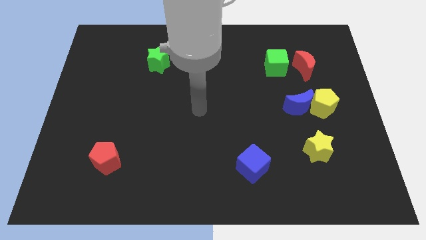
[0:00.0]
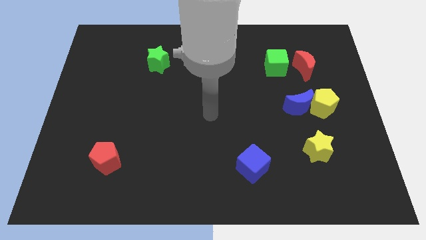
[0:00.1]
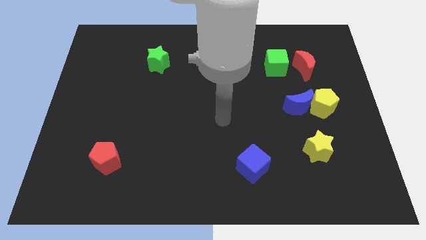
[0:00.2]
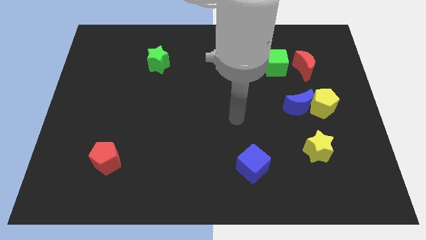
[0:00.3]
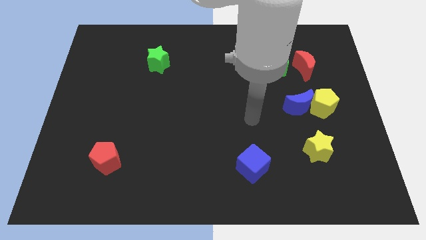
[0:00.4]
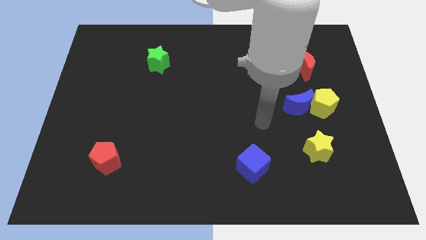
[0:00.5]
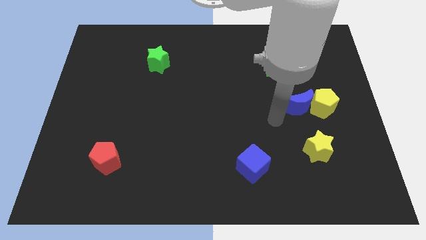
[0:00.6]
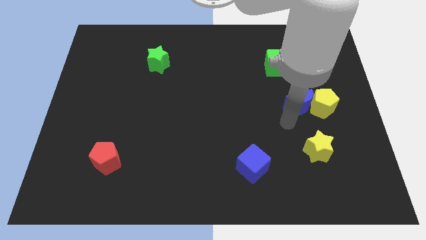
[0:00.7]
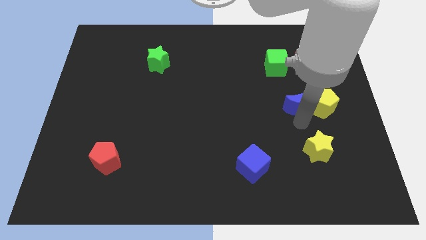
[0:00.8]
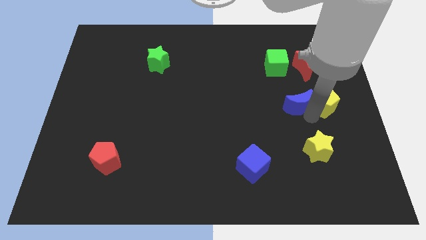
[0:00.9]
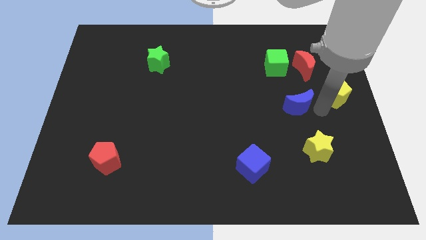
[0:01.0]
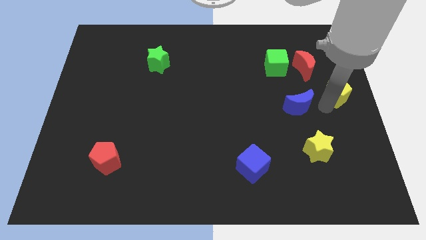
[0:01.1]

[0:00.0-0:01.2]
move the blue moon away from the yellow pentagon

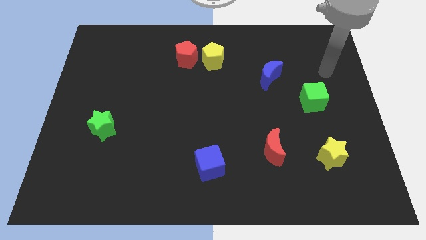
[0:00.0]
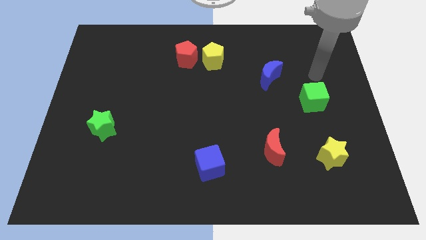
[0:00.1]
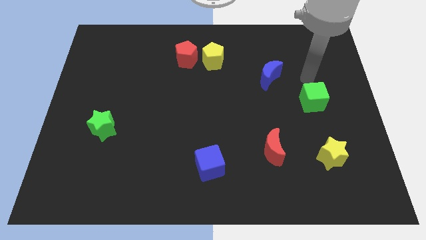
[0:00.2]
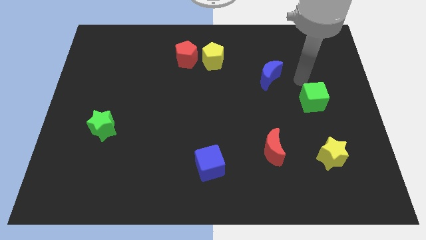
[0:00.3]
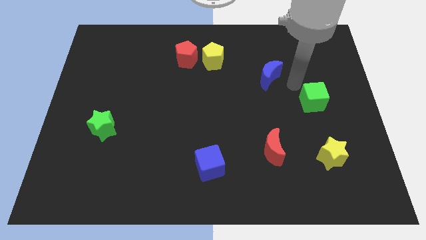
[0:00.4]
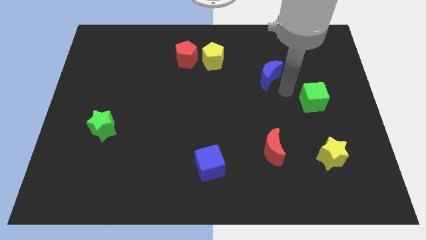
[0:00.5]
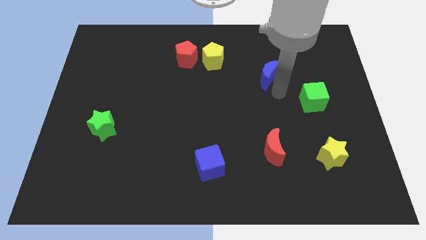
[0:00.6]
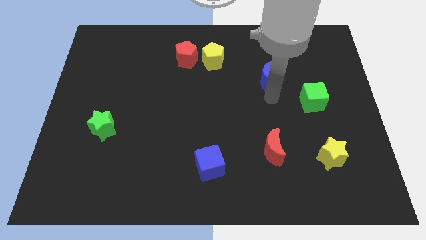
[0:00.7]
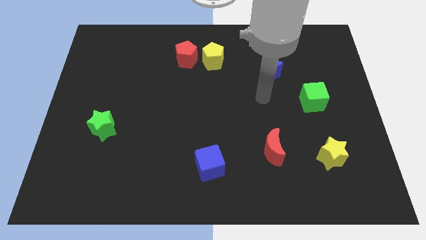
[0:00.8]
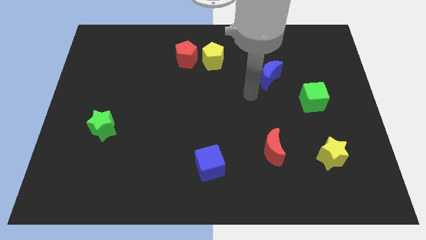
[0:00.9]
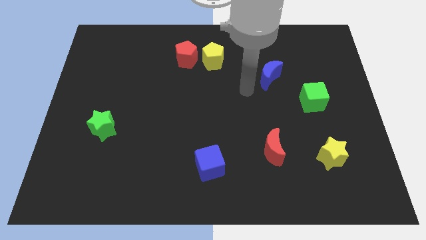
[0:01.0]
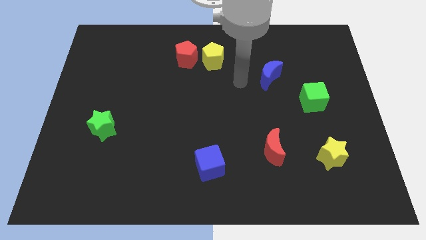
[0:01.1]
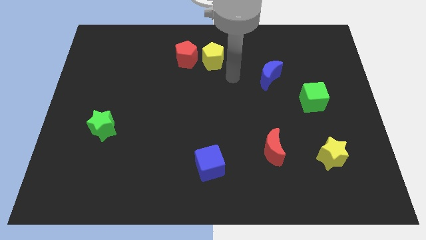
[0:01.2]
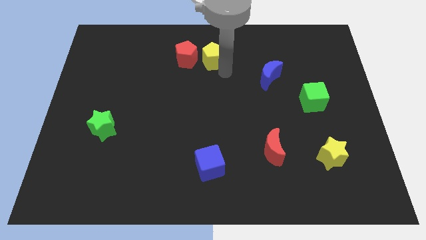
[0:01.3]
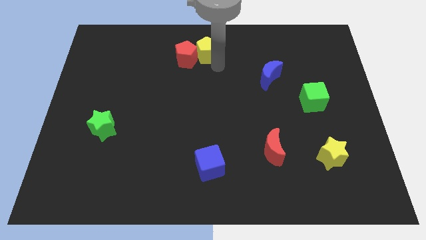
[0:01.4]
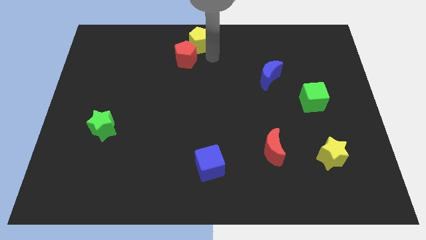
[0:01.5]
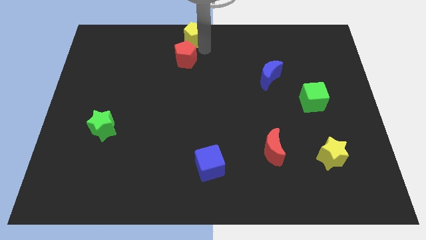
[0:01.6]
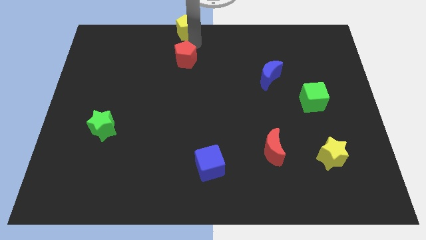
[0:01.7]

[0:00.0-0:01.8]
move the red pentagon away from the yellow pentagon

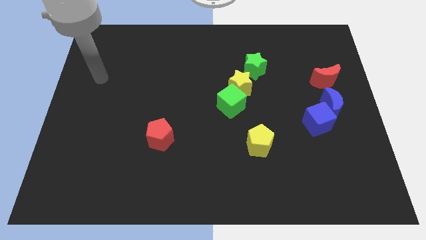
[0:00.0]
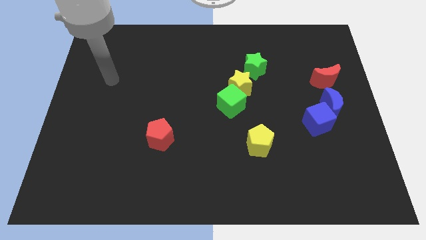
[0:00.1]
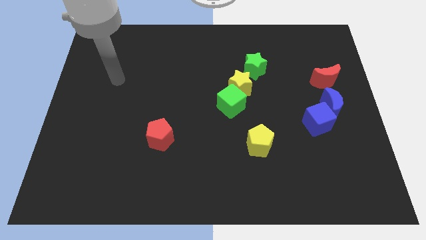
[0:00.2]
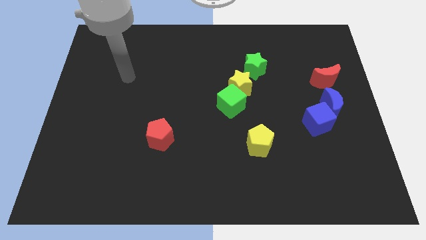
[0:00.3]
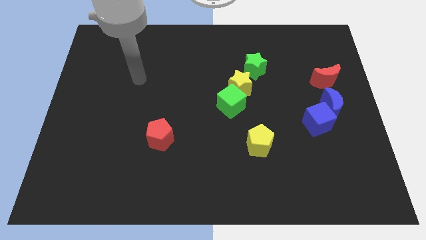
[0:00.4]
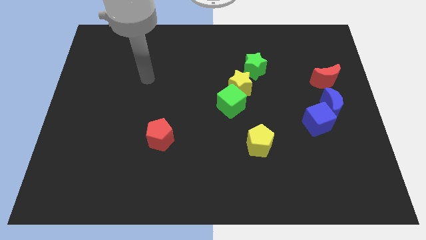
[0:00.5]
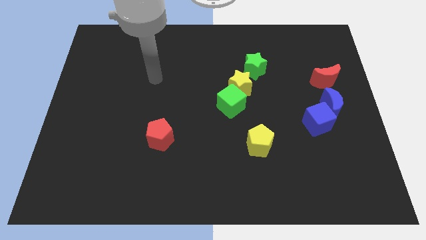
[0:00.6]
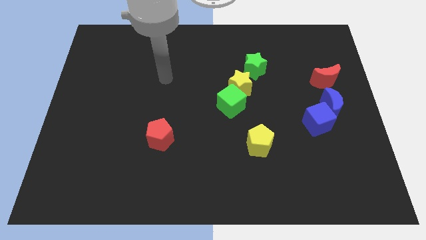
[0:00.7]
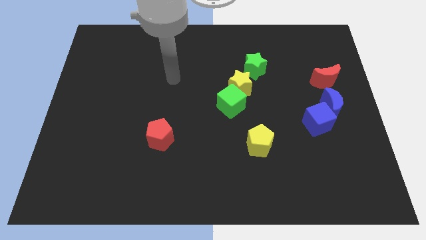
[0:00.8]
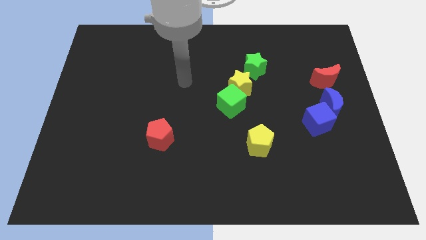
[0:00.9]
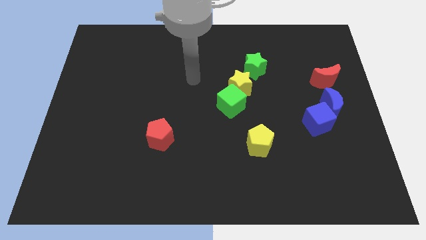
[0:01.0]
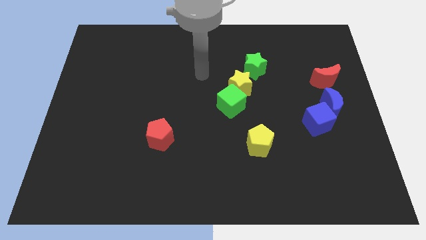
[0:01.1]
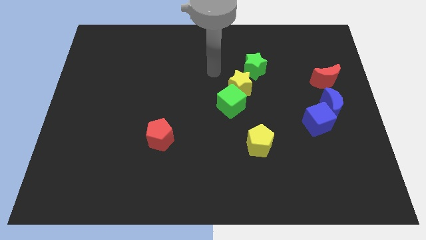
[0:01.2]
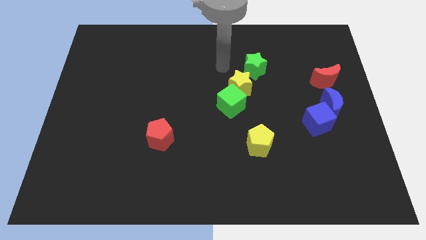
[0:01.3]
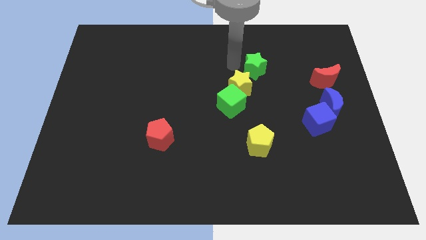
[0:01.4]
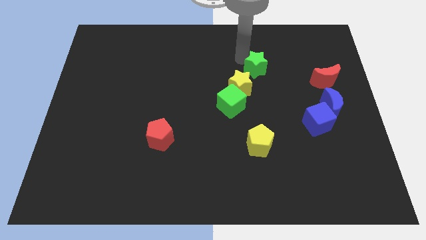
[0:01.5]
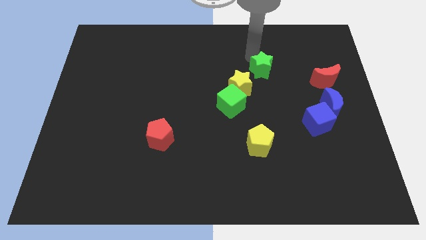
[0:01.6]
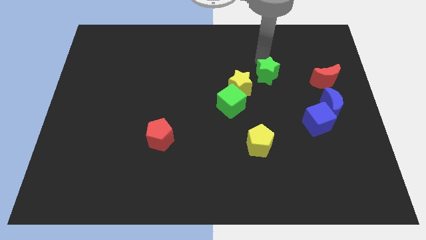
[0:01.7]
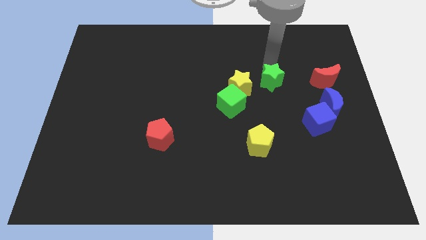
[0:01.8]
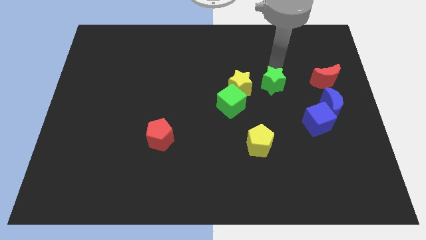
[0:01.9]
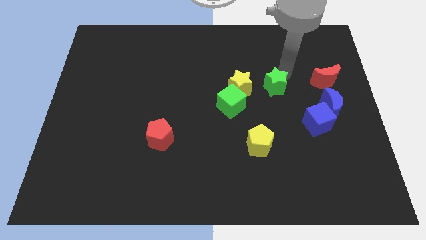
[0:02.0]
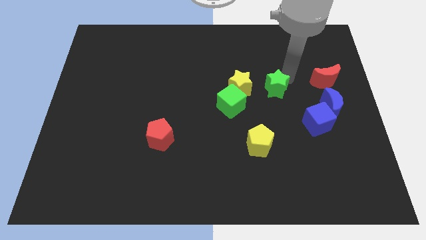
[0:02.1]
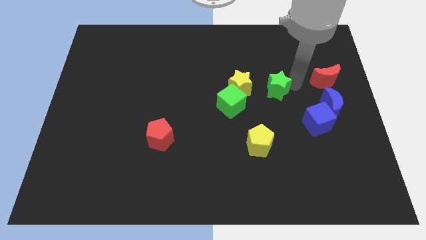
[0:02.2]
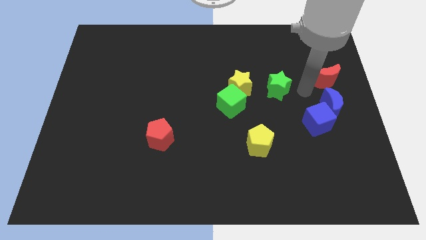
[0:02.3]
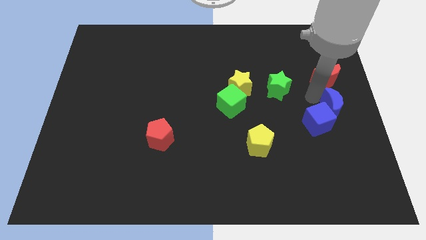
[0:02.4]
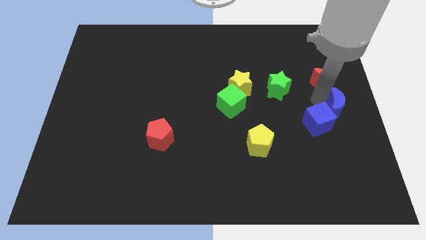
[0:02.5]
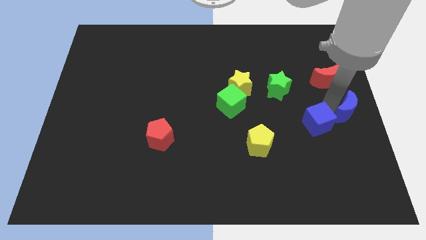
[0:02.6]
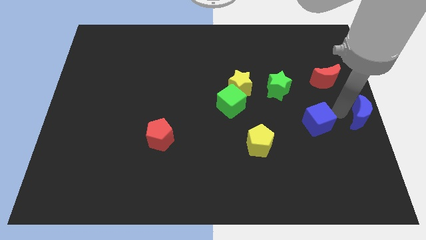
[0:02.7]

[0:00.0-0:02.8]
pull the blue cube apart from the blue moon

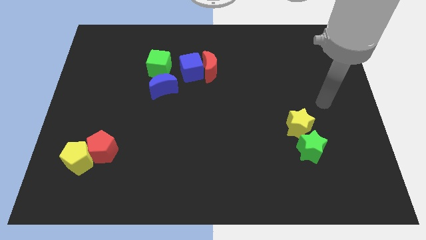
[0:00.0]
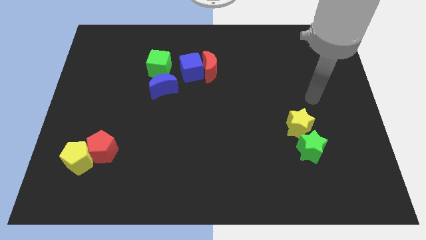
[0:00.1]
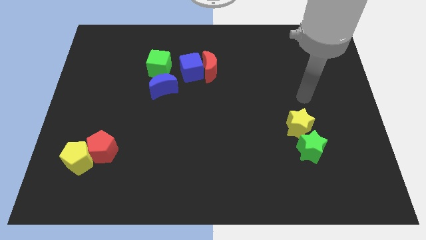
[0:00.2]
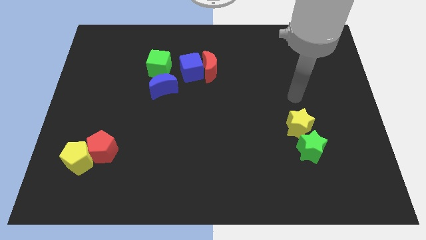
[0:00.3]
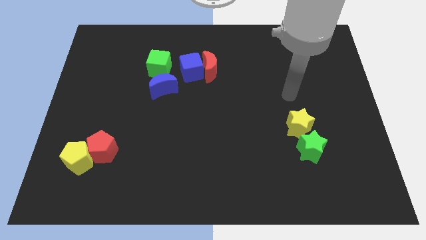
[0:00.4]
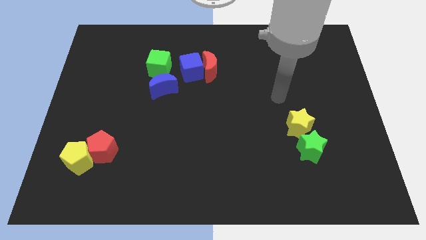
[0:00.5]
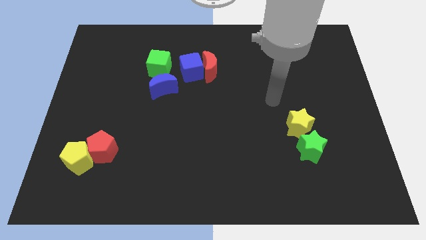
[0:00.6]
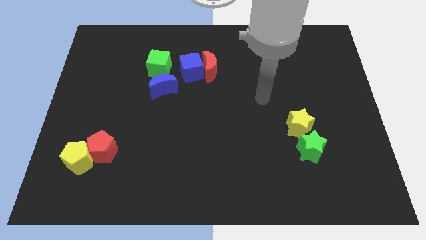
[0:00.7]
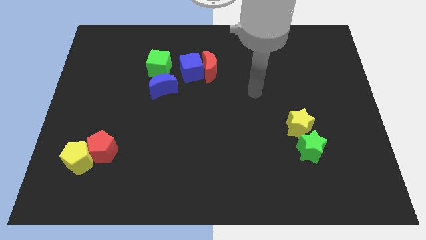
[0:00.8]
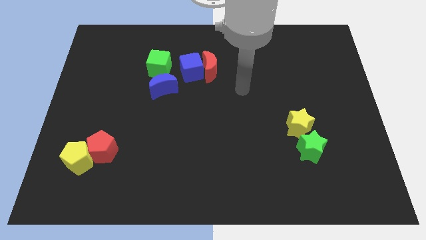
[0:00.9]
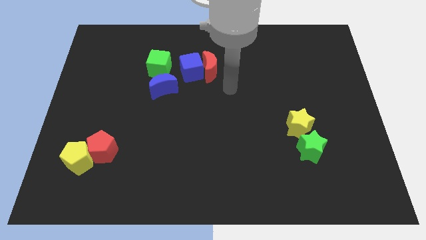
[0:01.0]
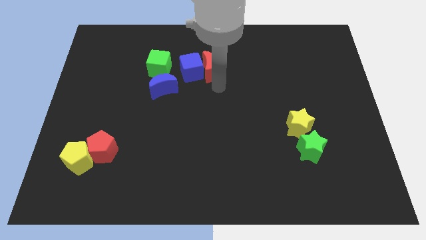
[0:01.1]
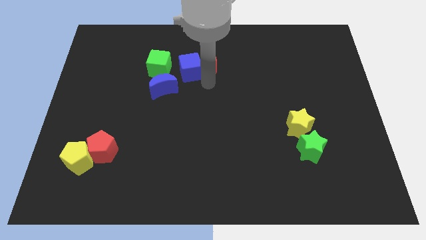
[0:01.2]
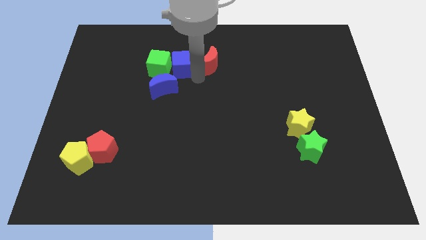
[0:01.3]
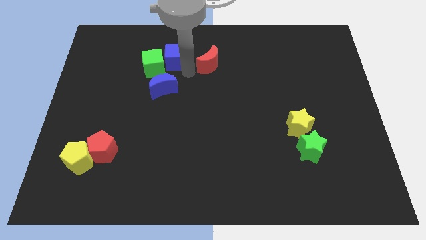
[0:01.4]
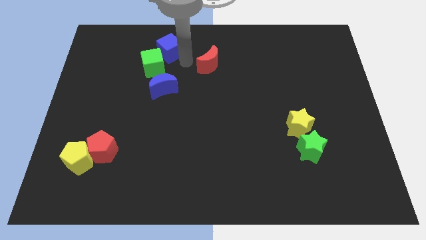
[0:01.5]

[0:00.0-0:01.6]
move the red moon away from the blue cube

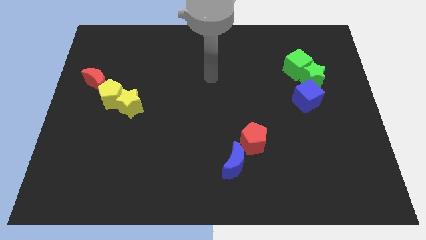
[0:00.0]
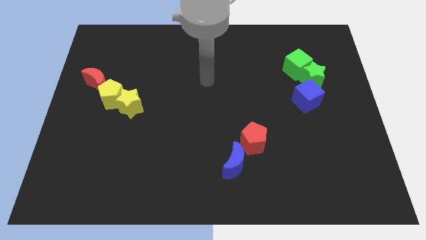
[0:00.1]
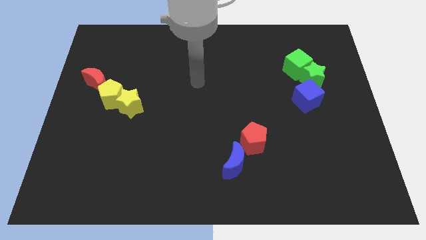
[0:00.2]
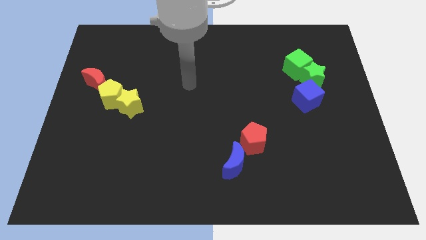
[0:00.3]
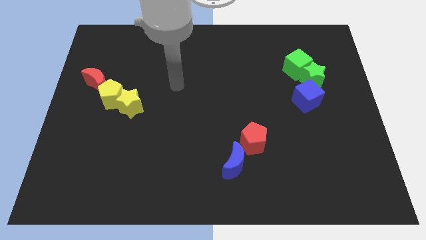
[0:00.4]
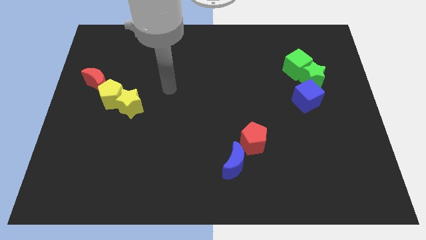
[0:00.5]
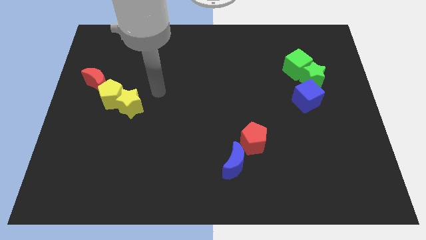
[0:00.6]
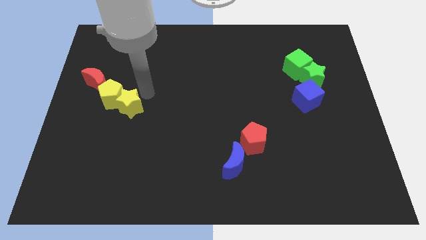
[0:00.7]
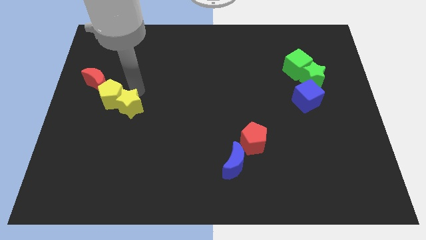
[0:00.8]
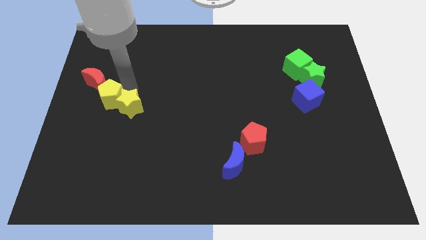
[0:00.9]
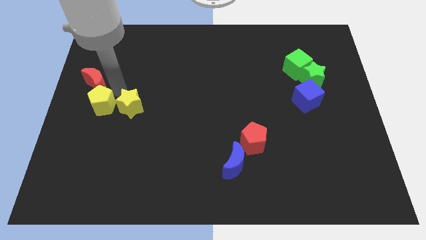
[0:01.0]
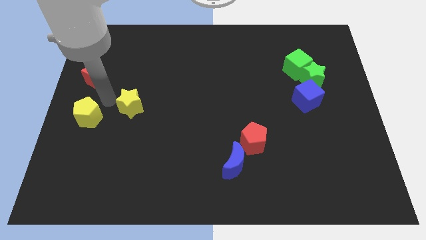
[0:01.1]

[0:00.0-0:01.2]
separate the yellow star from the yellow pentagon

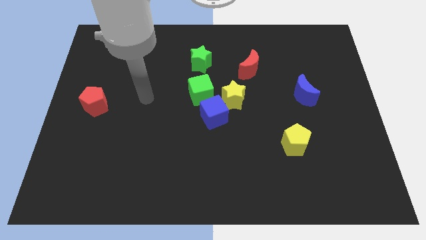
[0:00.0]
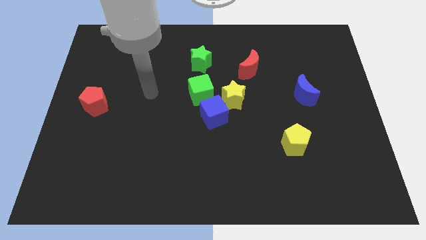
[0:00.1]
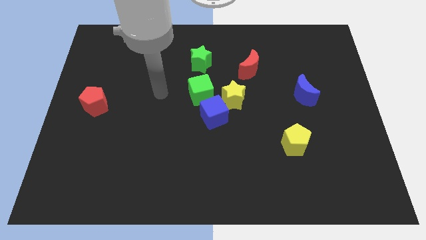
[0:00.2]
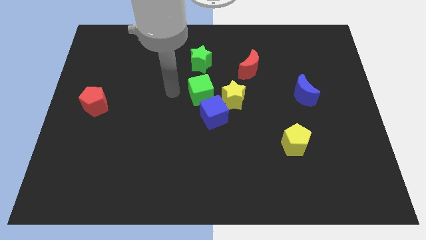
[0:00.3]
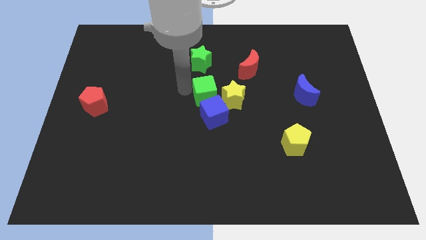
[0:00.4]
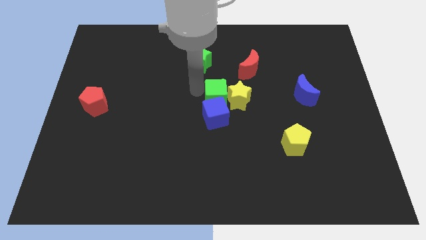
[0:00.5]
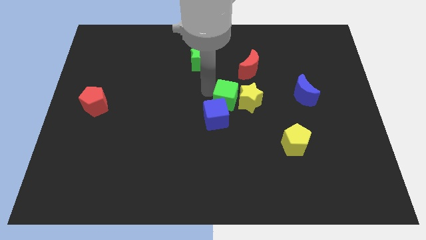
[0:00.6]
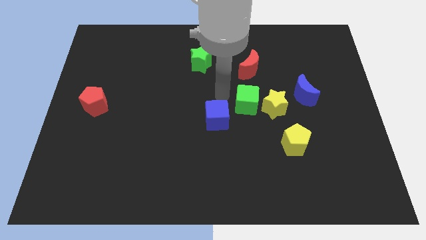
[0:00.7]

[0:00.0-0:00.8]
move the blue cube away from the yellow star and green cube

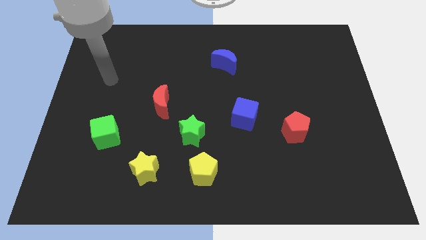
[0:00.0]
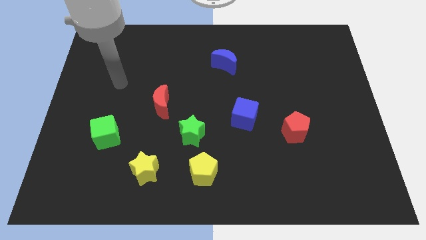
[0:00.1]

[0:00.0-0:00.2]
separate the green star from the yellow pentagon
